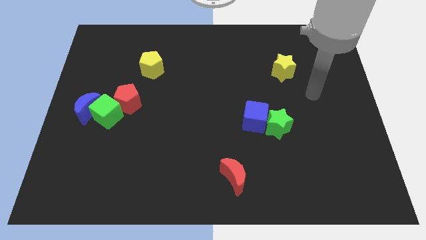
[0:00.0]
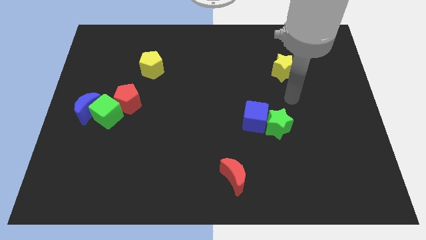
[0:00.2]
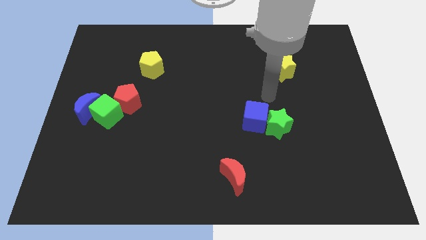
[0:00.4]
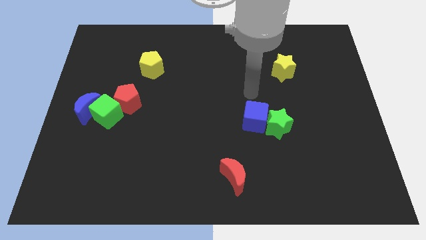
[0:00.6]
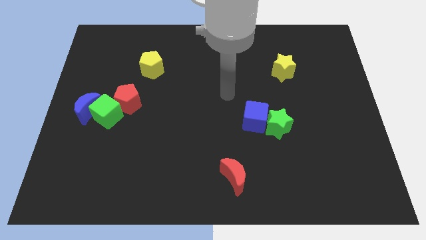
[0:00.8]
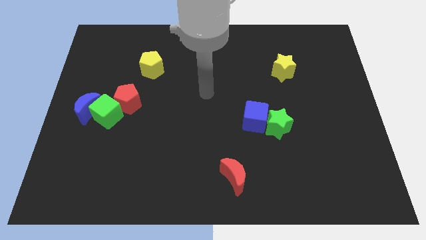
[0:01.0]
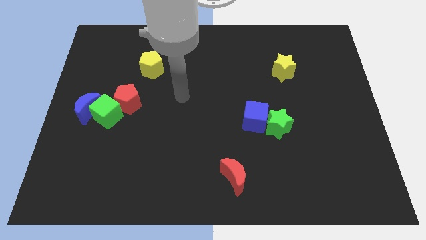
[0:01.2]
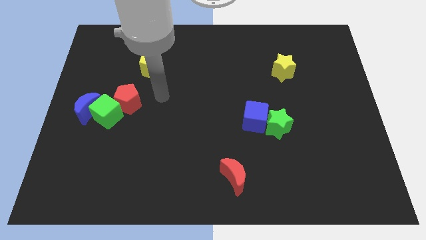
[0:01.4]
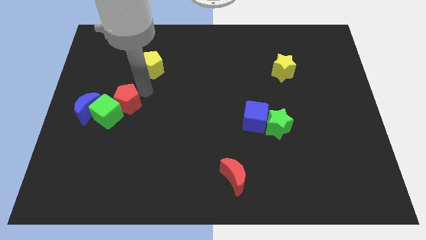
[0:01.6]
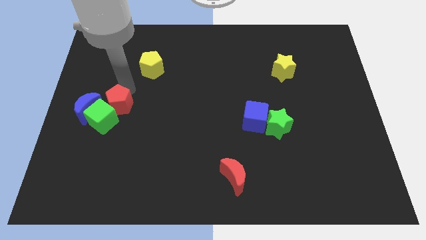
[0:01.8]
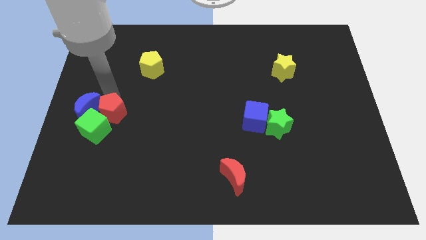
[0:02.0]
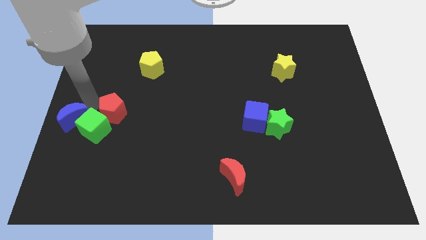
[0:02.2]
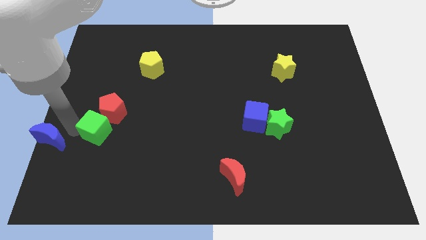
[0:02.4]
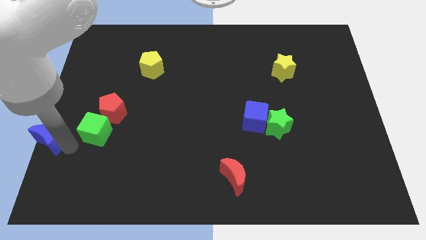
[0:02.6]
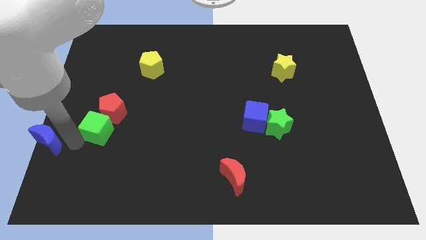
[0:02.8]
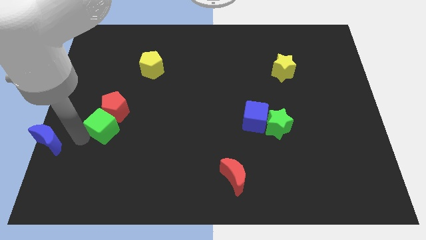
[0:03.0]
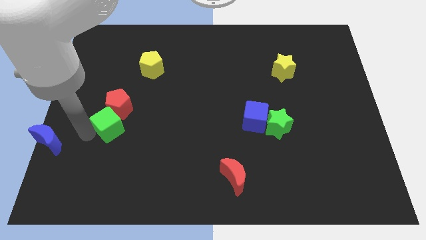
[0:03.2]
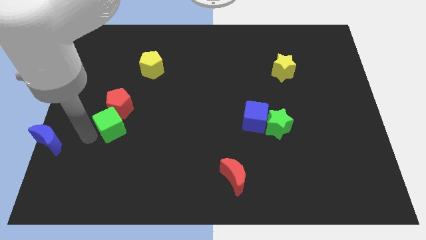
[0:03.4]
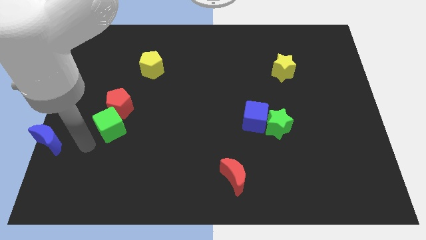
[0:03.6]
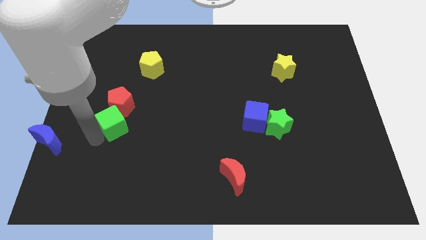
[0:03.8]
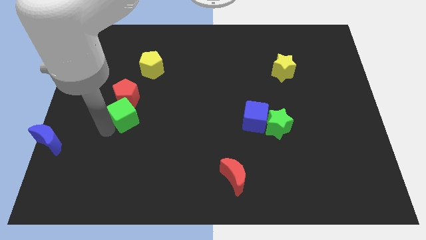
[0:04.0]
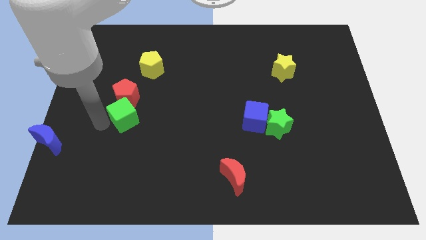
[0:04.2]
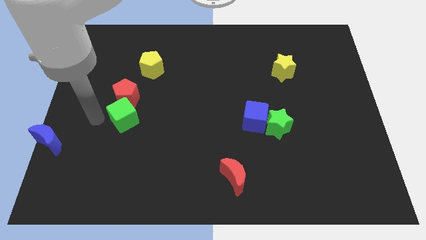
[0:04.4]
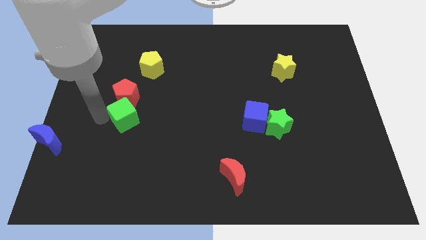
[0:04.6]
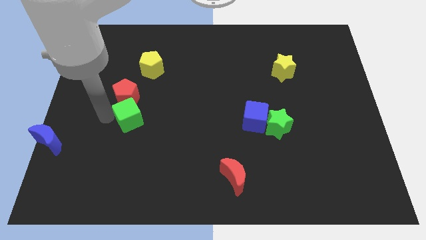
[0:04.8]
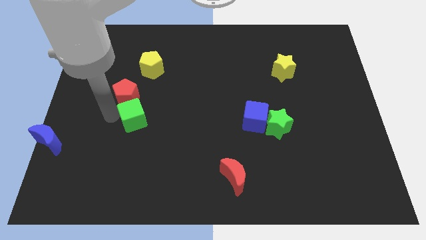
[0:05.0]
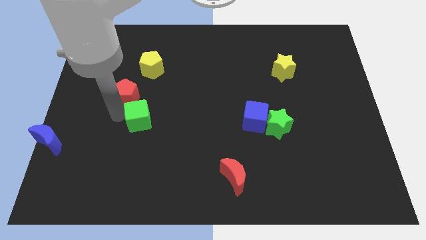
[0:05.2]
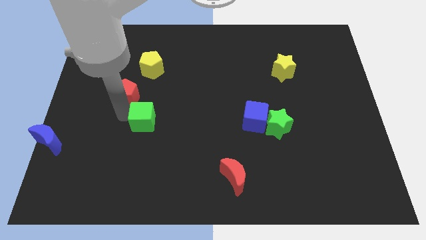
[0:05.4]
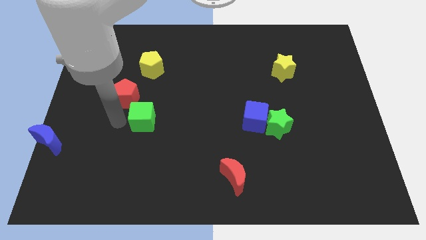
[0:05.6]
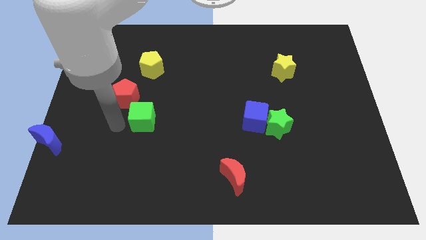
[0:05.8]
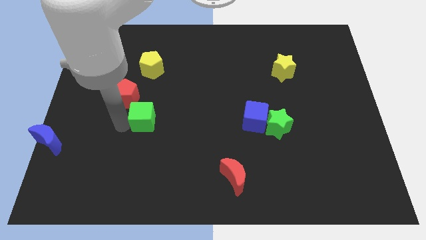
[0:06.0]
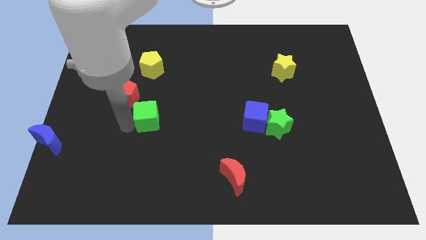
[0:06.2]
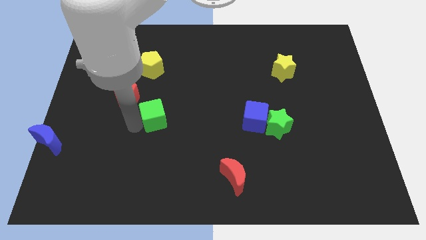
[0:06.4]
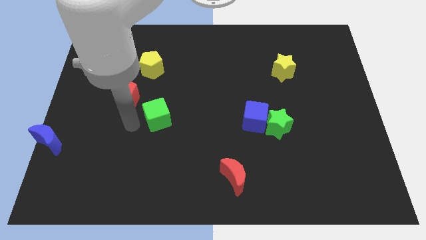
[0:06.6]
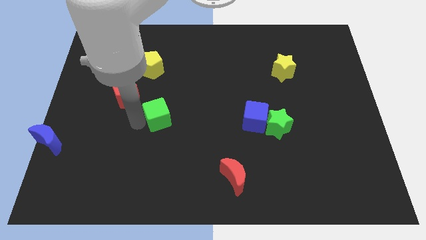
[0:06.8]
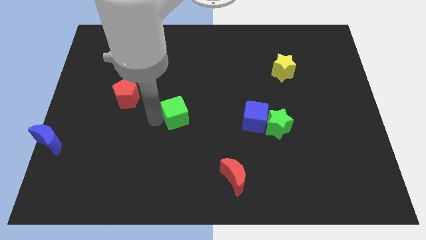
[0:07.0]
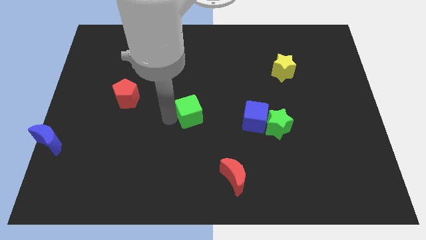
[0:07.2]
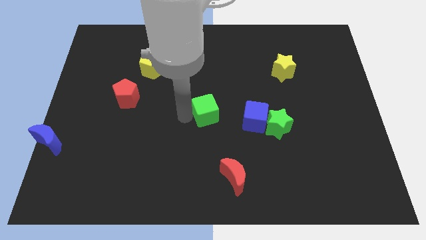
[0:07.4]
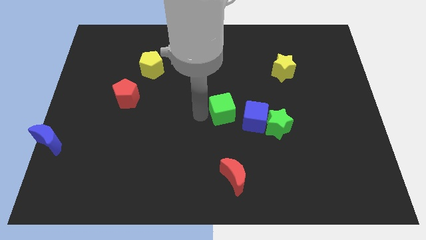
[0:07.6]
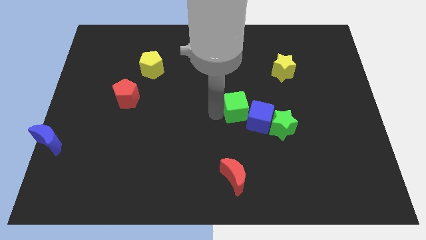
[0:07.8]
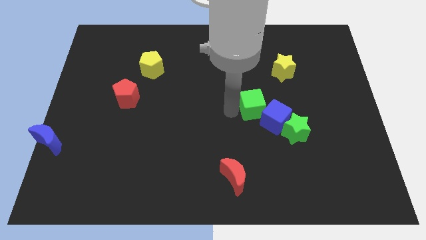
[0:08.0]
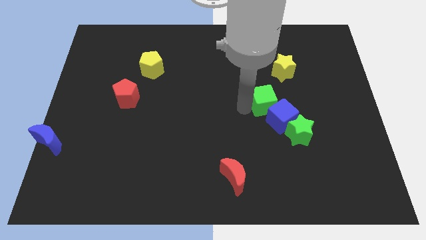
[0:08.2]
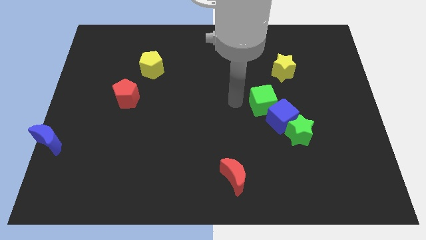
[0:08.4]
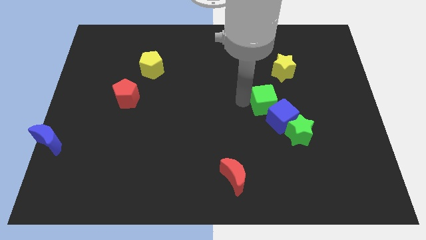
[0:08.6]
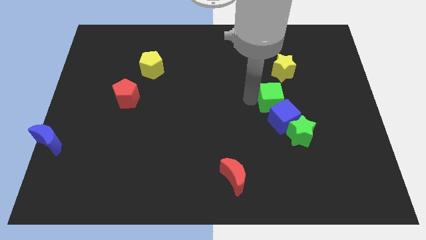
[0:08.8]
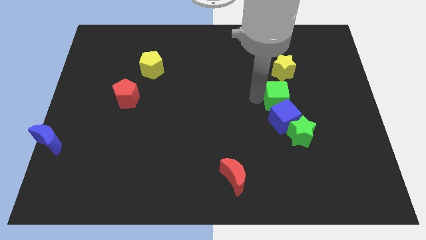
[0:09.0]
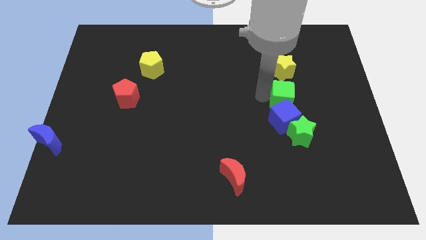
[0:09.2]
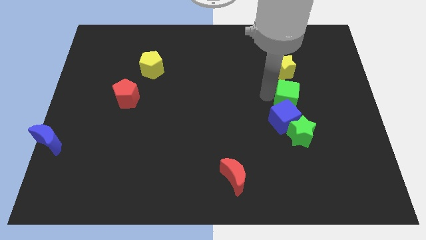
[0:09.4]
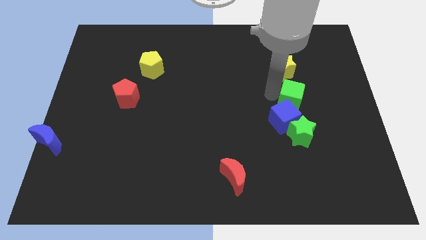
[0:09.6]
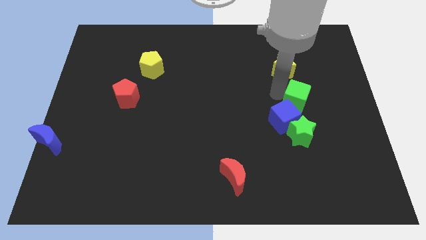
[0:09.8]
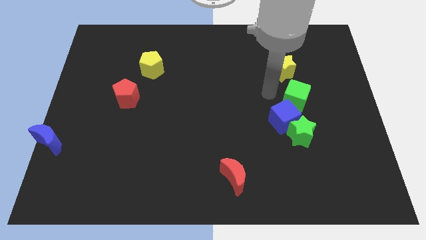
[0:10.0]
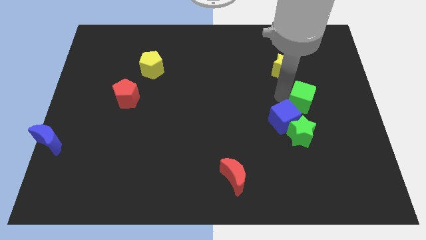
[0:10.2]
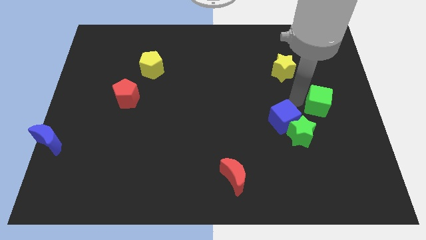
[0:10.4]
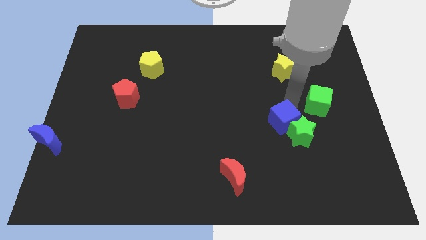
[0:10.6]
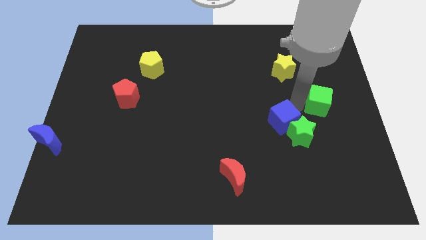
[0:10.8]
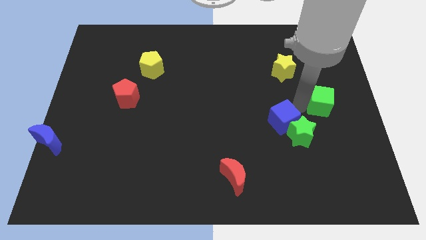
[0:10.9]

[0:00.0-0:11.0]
push the green cube to the right side of the board

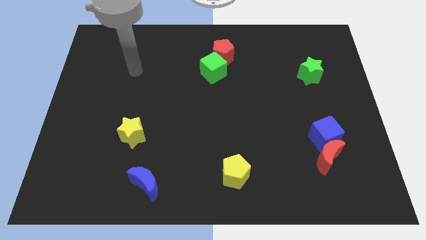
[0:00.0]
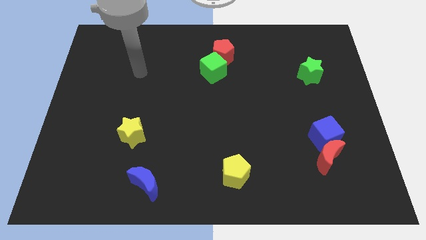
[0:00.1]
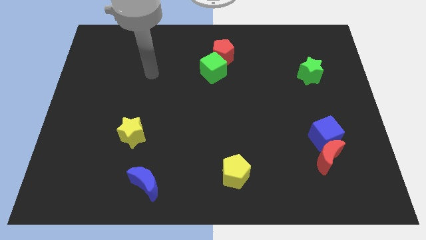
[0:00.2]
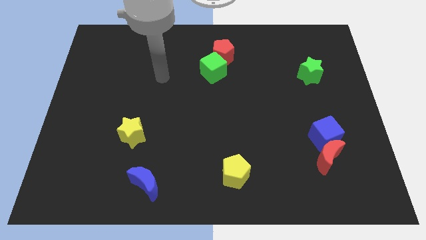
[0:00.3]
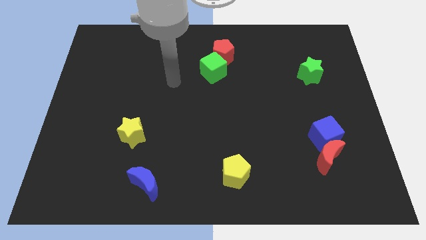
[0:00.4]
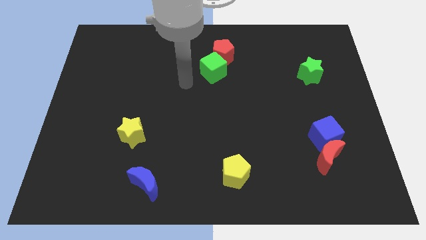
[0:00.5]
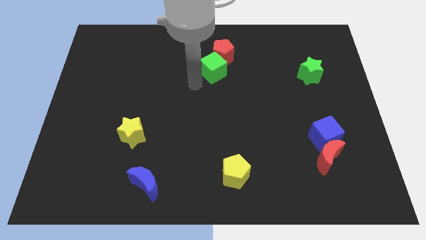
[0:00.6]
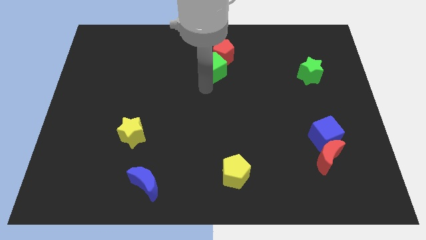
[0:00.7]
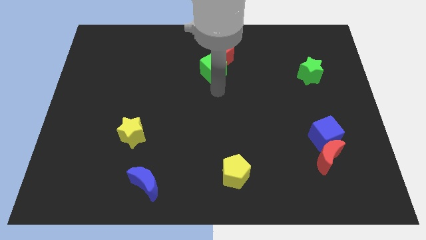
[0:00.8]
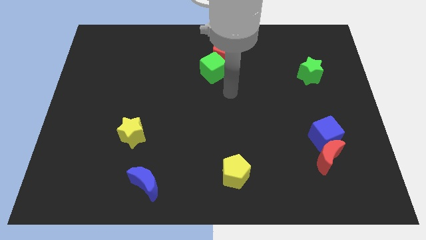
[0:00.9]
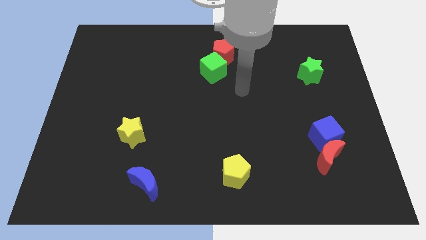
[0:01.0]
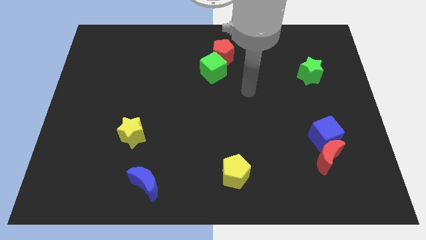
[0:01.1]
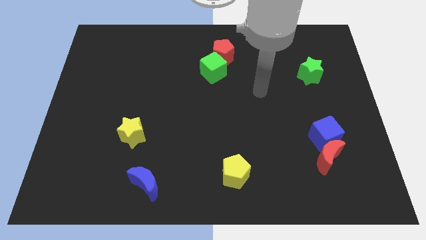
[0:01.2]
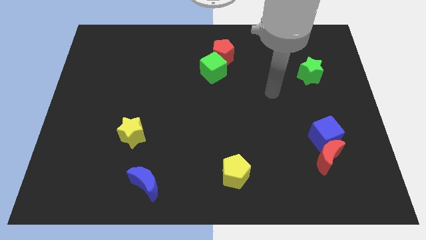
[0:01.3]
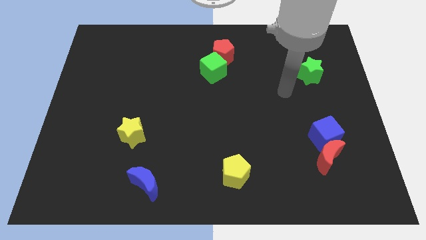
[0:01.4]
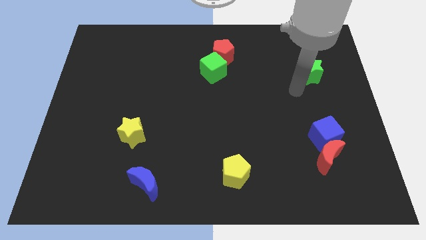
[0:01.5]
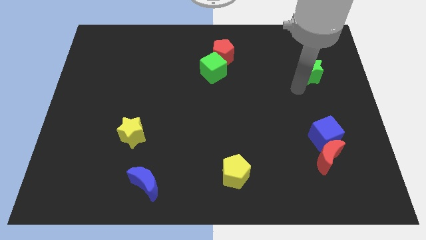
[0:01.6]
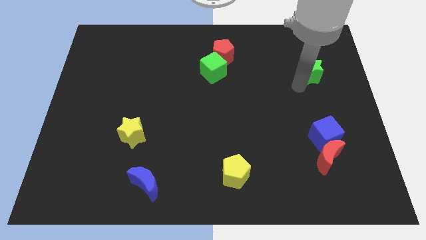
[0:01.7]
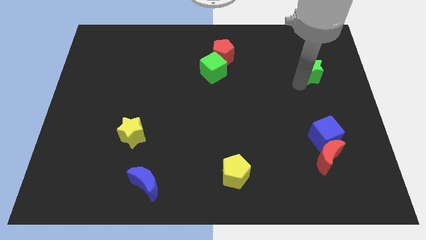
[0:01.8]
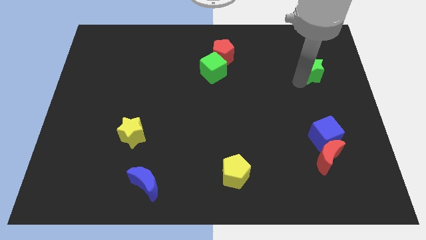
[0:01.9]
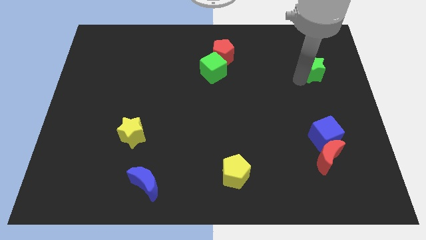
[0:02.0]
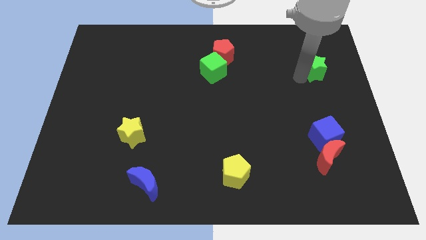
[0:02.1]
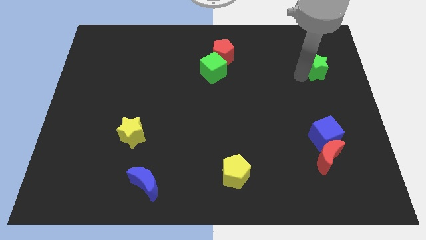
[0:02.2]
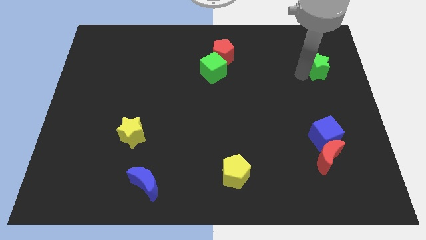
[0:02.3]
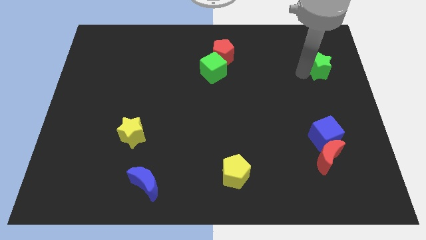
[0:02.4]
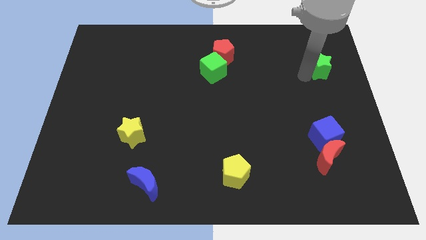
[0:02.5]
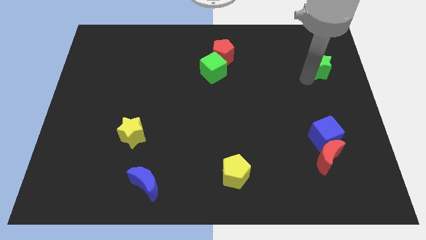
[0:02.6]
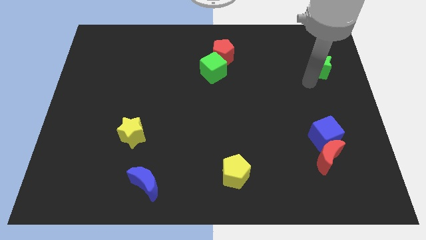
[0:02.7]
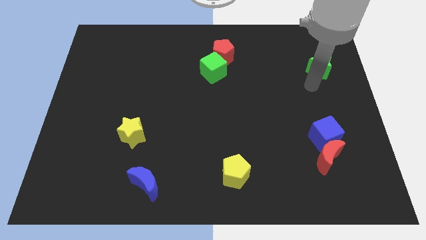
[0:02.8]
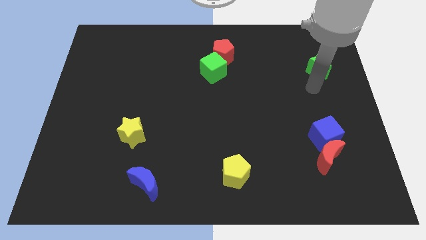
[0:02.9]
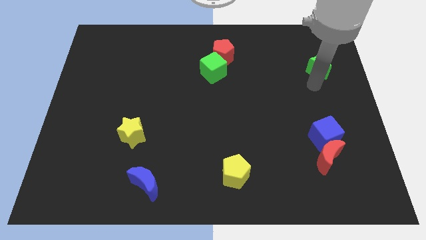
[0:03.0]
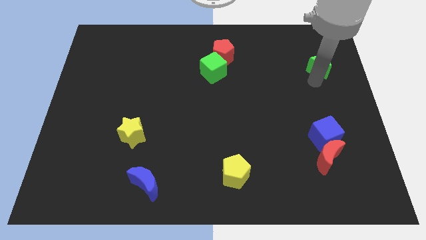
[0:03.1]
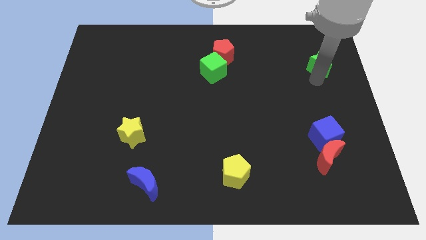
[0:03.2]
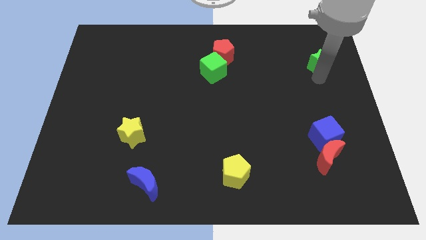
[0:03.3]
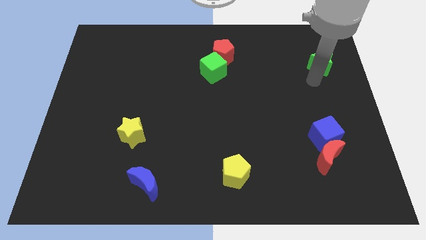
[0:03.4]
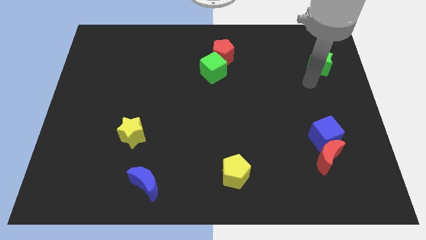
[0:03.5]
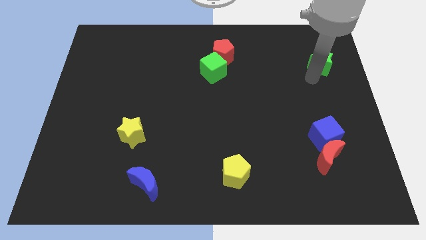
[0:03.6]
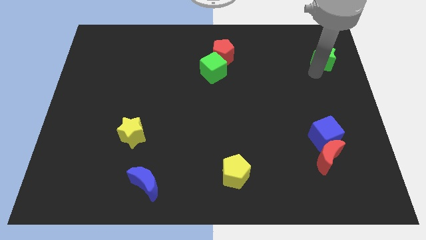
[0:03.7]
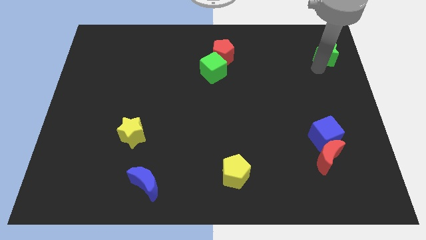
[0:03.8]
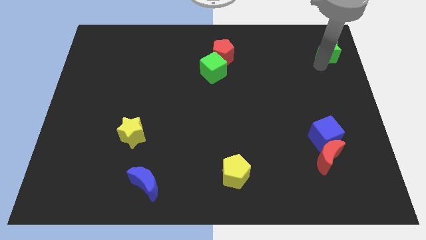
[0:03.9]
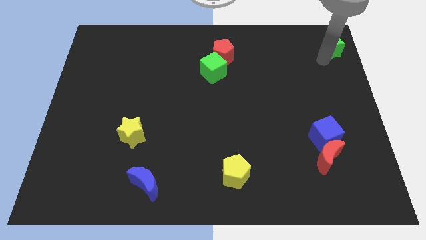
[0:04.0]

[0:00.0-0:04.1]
put the green star to the upper right corner
